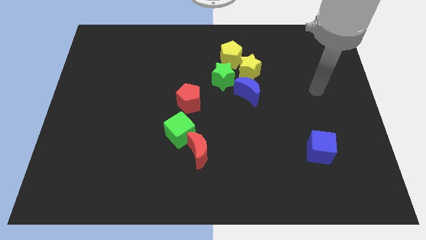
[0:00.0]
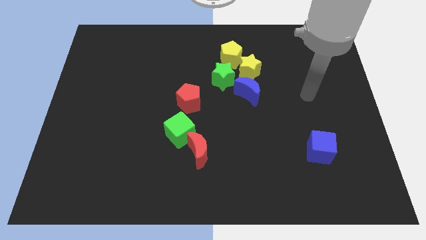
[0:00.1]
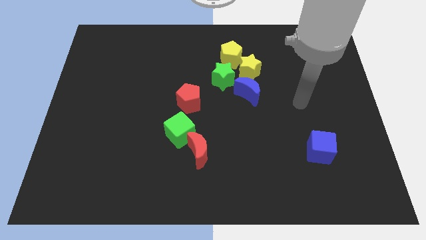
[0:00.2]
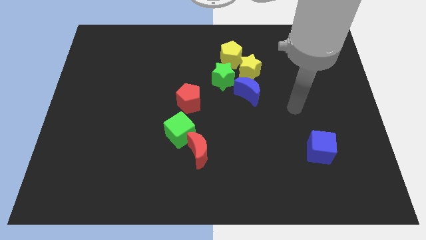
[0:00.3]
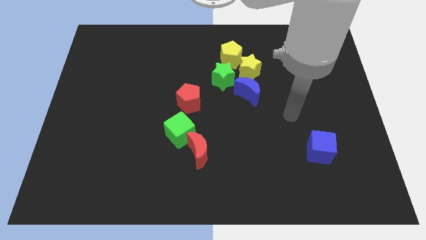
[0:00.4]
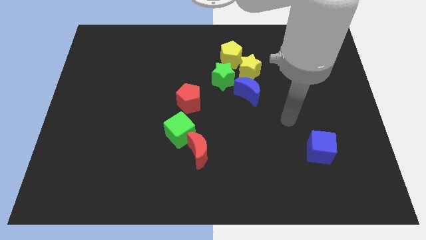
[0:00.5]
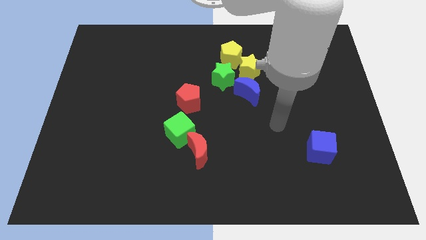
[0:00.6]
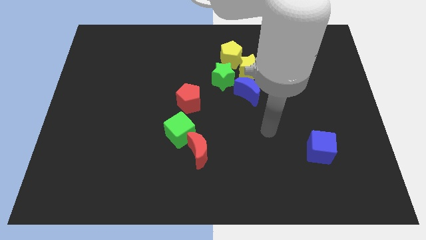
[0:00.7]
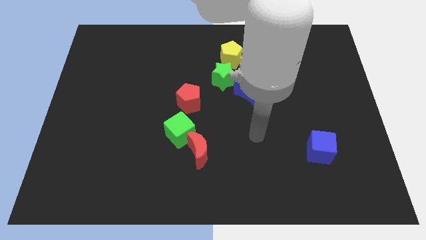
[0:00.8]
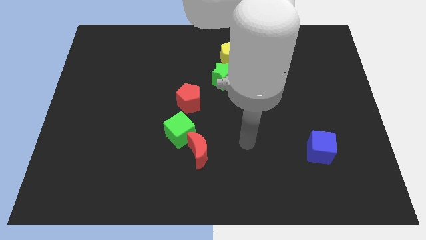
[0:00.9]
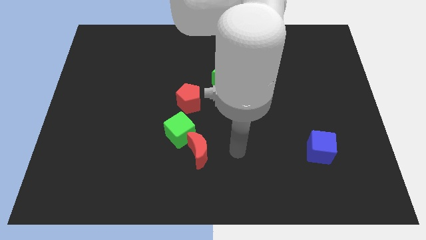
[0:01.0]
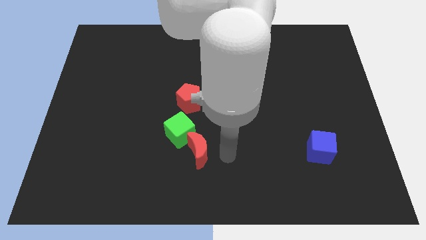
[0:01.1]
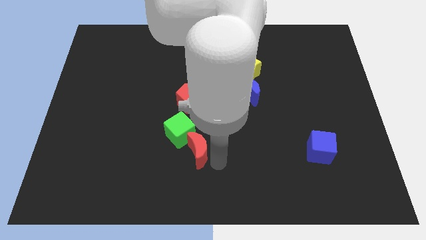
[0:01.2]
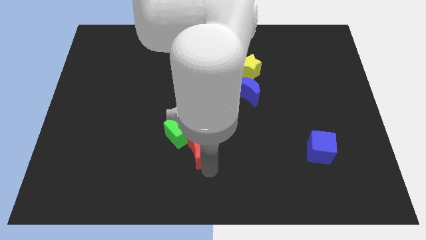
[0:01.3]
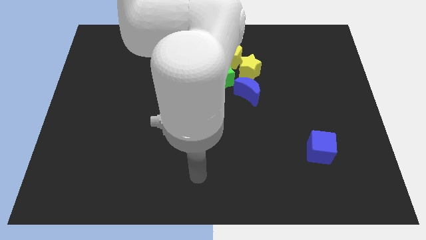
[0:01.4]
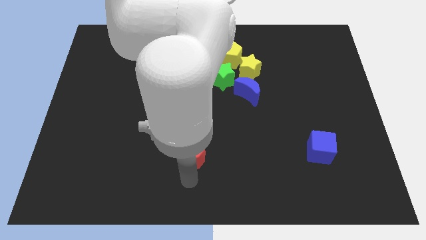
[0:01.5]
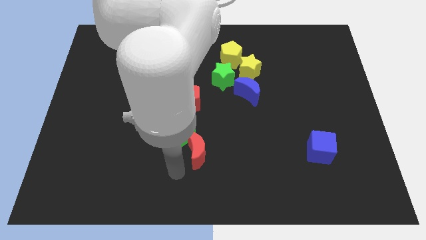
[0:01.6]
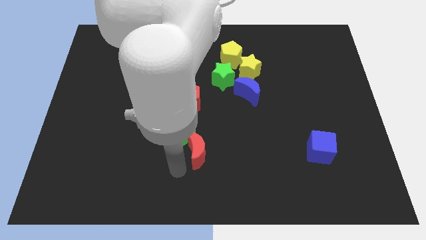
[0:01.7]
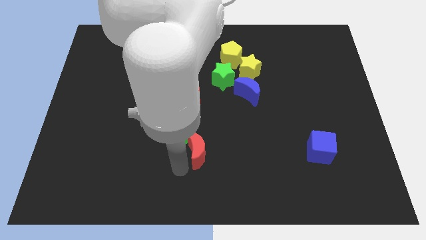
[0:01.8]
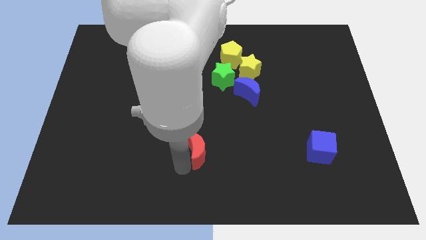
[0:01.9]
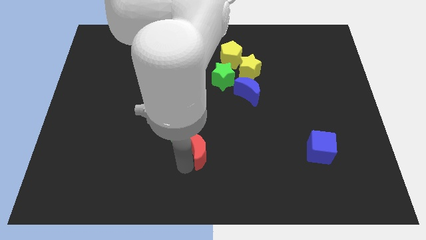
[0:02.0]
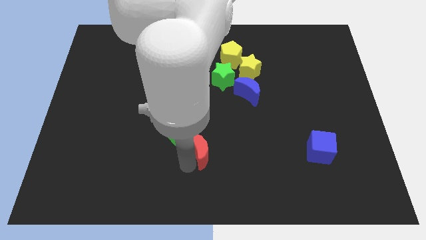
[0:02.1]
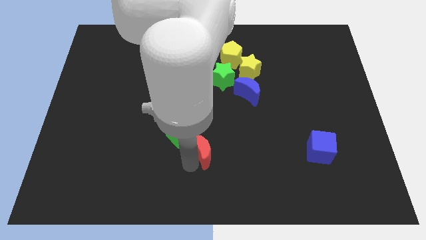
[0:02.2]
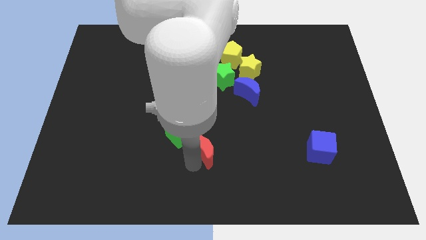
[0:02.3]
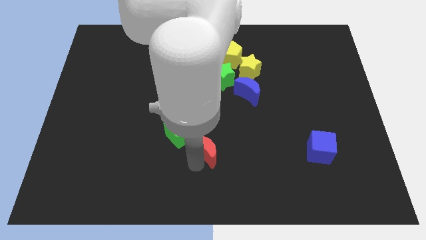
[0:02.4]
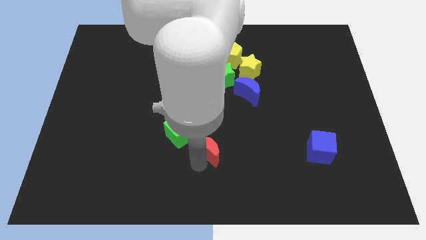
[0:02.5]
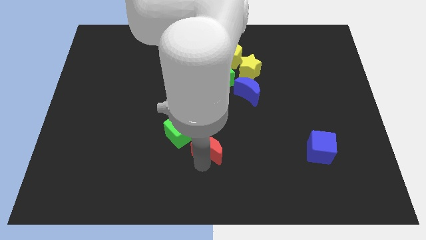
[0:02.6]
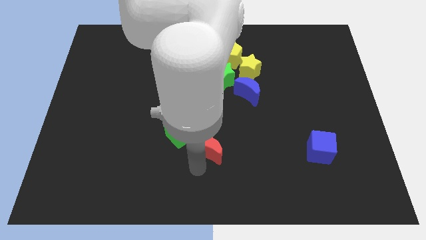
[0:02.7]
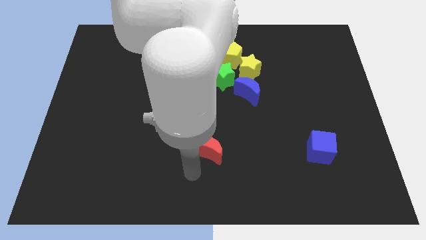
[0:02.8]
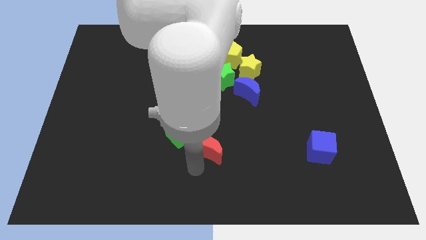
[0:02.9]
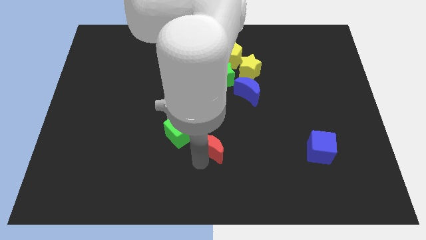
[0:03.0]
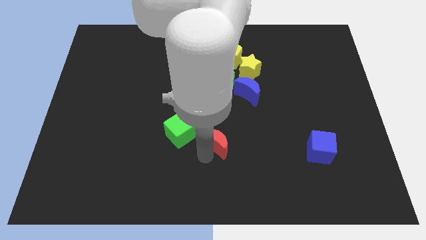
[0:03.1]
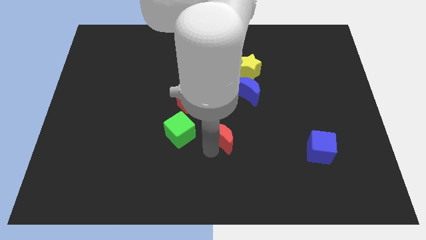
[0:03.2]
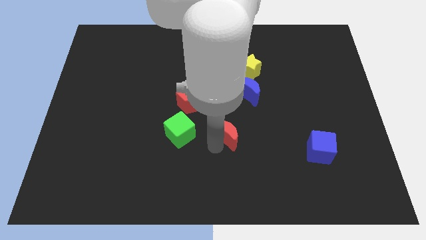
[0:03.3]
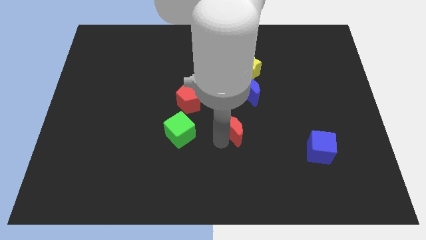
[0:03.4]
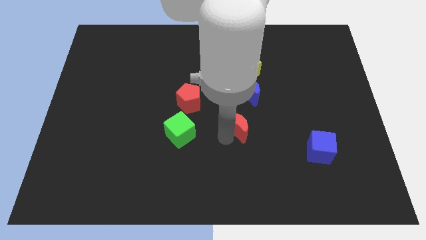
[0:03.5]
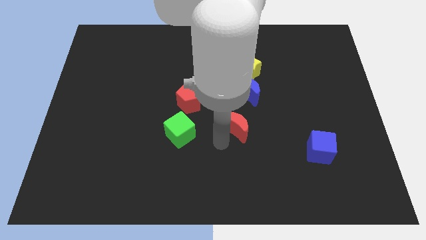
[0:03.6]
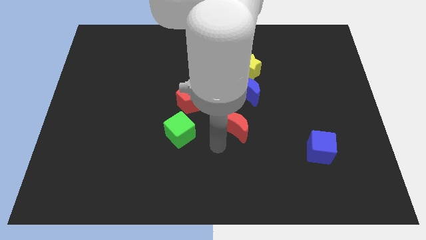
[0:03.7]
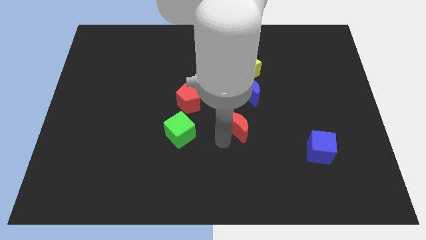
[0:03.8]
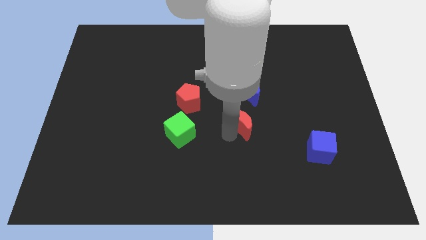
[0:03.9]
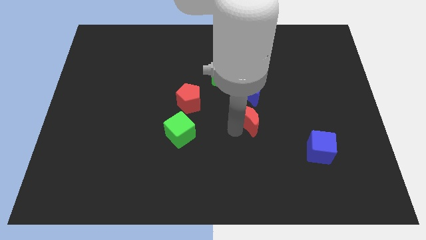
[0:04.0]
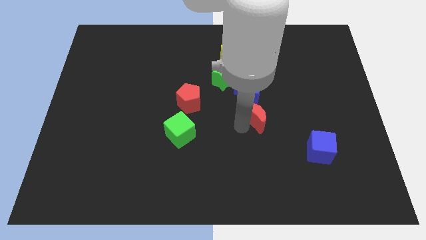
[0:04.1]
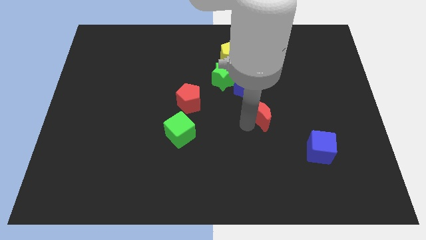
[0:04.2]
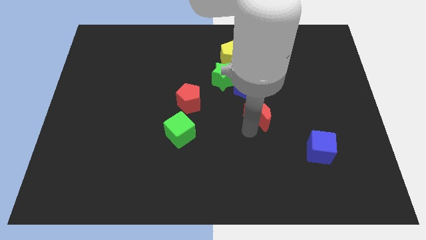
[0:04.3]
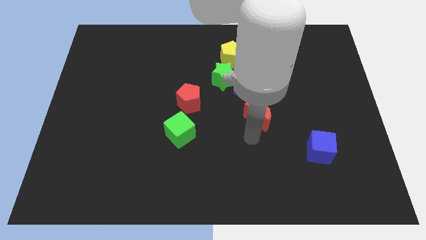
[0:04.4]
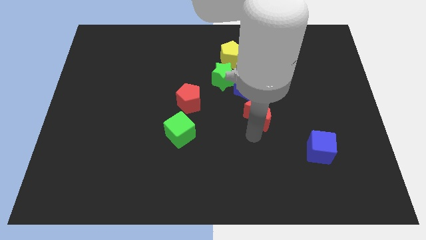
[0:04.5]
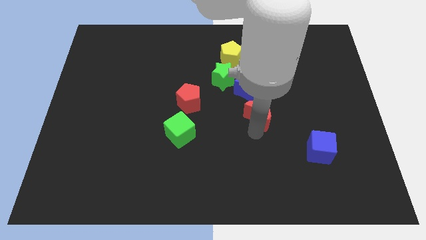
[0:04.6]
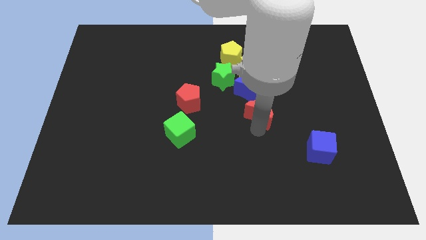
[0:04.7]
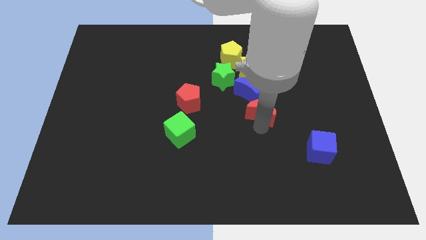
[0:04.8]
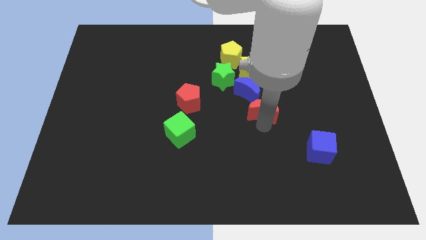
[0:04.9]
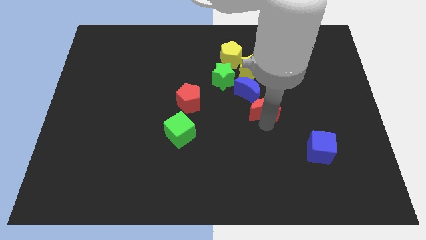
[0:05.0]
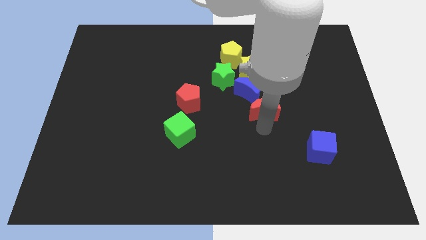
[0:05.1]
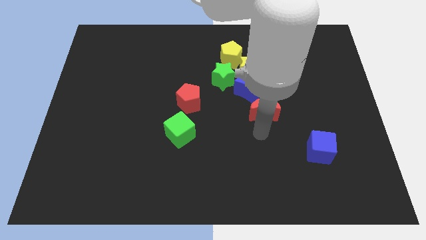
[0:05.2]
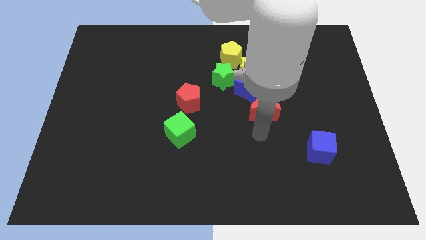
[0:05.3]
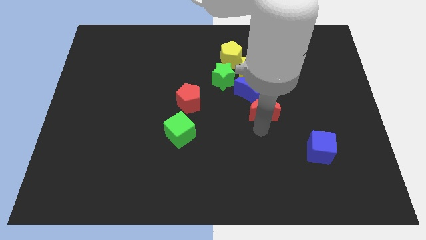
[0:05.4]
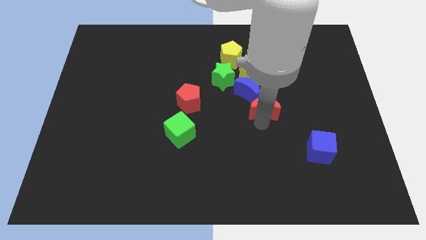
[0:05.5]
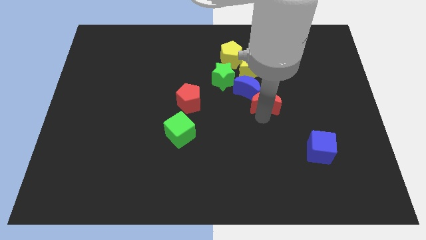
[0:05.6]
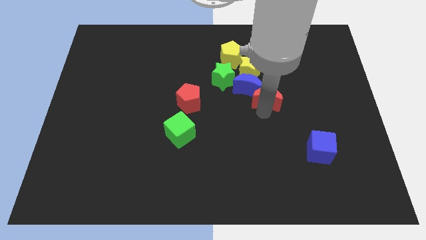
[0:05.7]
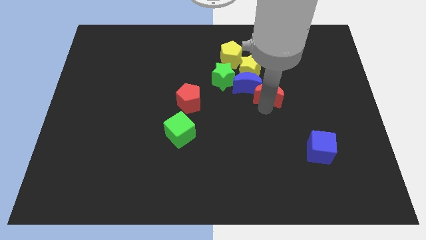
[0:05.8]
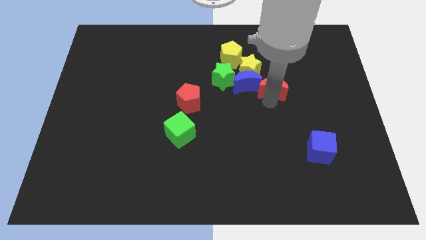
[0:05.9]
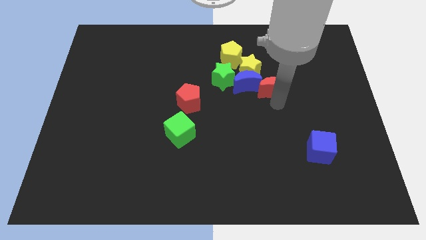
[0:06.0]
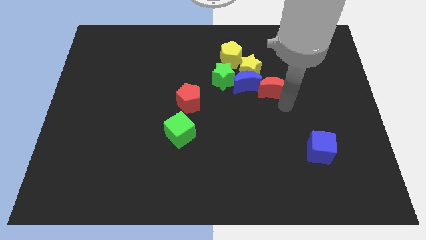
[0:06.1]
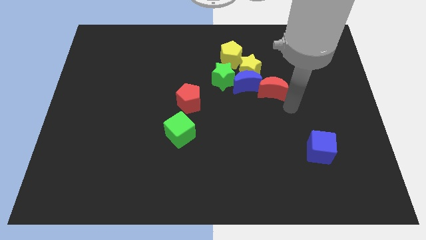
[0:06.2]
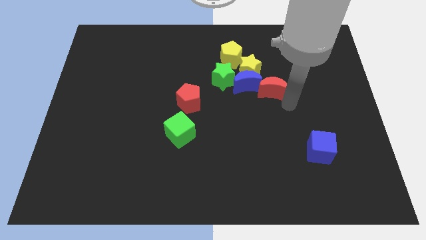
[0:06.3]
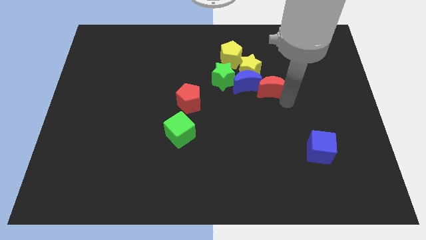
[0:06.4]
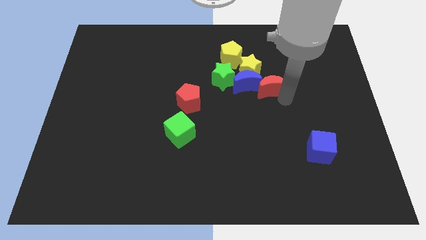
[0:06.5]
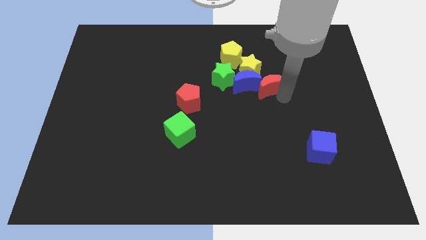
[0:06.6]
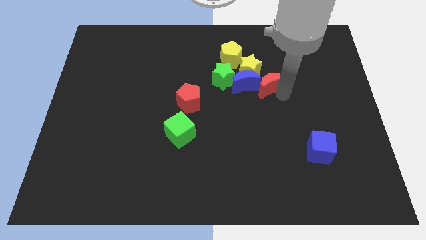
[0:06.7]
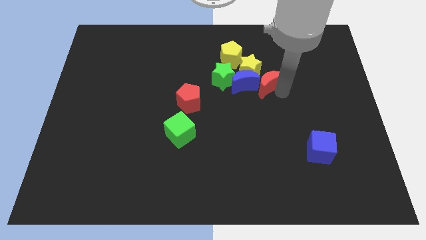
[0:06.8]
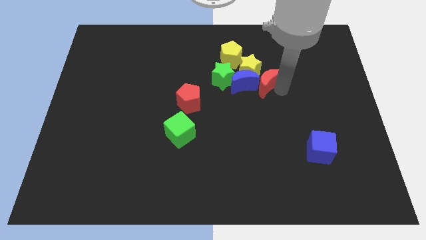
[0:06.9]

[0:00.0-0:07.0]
move the red moon to the bottom right side of the yellow pentagon

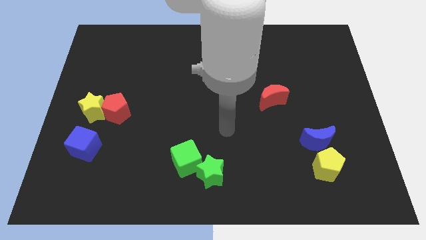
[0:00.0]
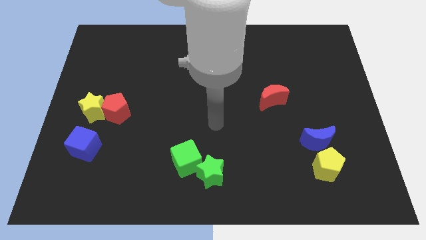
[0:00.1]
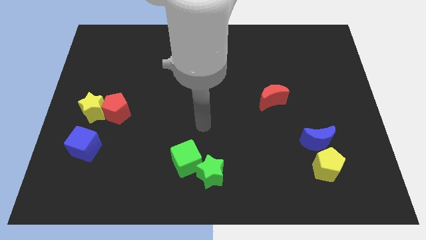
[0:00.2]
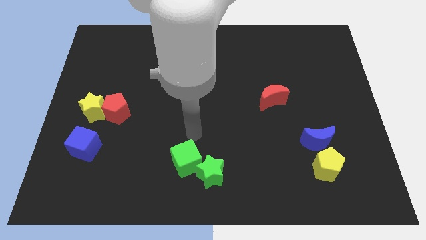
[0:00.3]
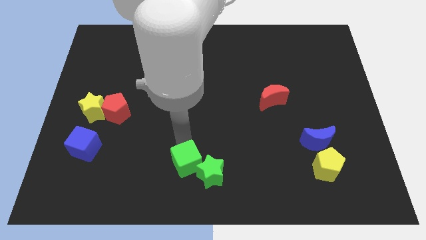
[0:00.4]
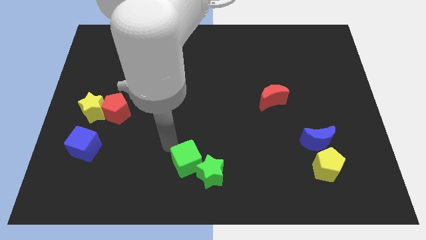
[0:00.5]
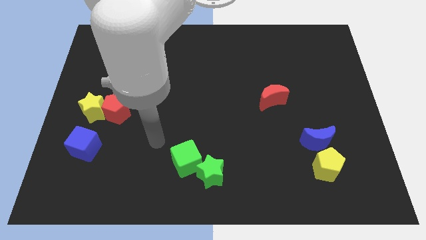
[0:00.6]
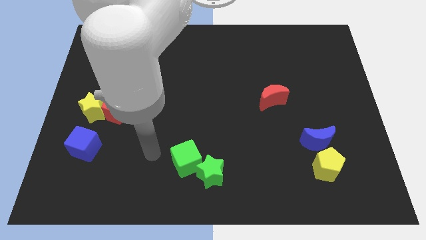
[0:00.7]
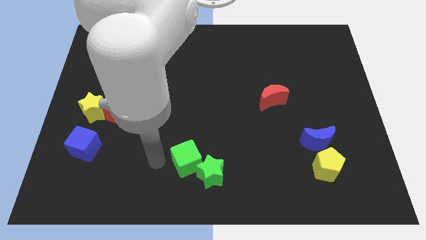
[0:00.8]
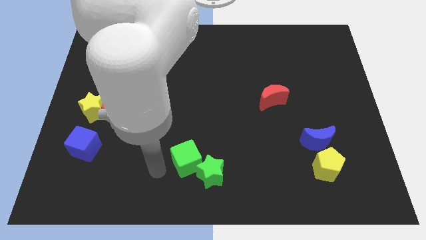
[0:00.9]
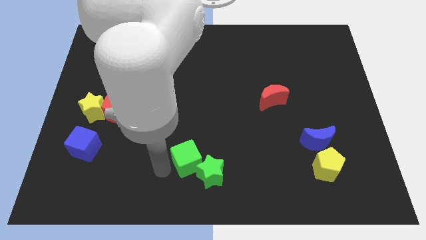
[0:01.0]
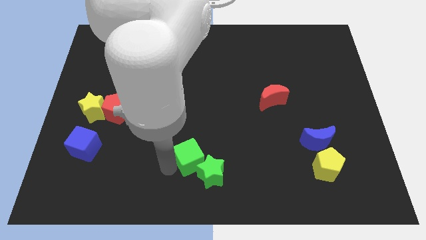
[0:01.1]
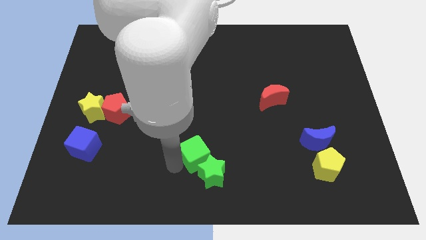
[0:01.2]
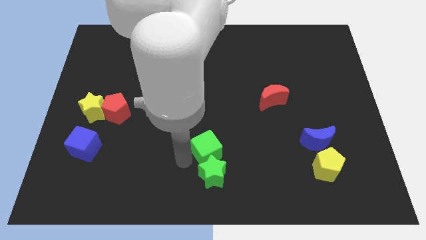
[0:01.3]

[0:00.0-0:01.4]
push the green cube diagonally up and to the right of the green star
